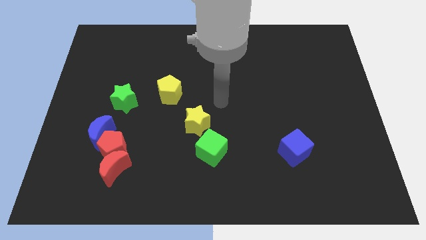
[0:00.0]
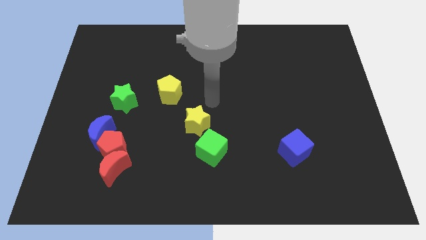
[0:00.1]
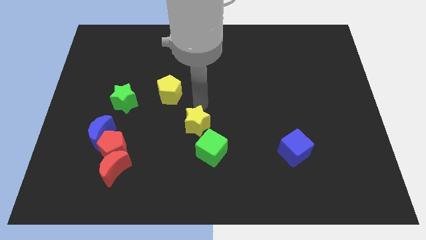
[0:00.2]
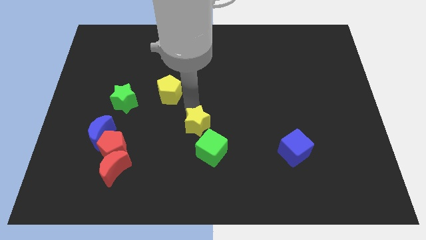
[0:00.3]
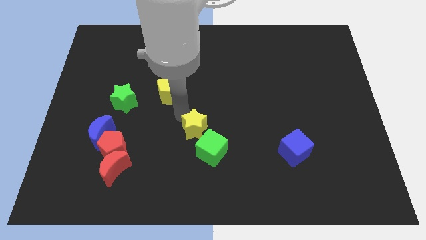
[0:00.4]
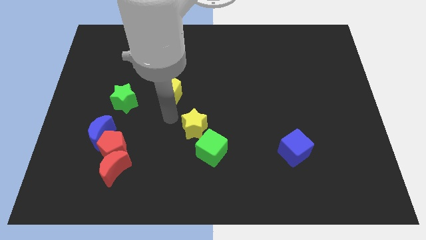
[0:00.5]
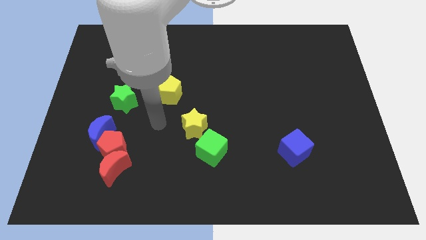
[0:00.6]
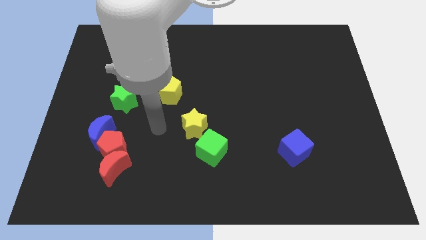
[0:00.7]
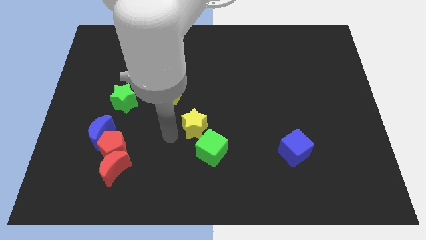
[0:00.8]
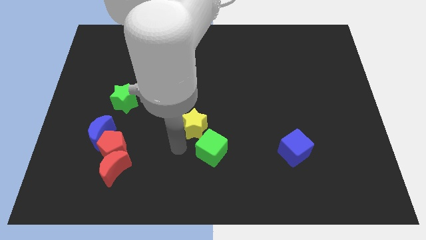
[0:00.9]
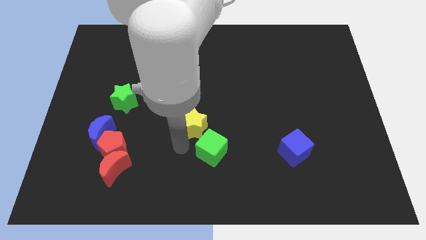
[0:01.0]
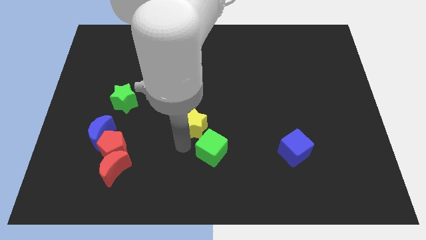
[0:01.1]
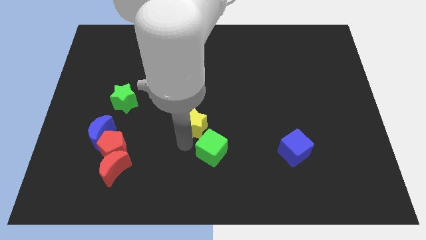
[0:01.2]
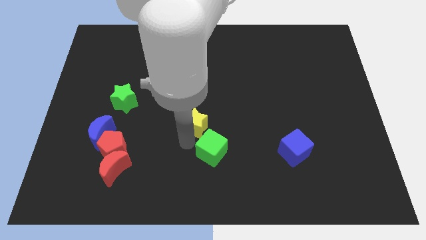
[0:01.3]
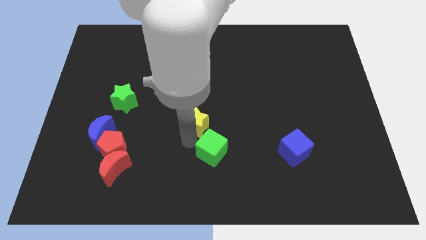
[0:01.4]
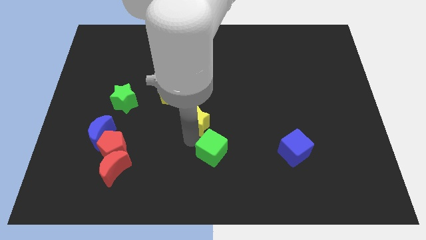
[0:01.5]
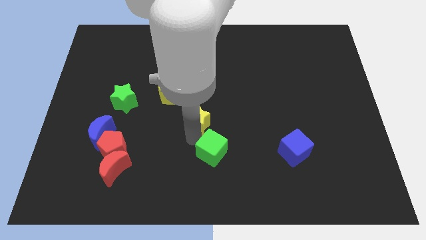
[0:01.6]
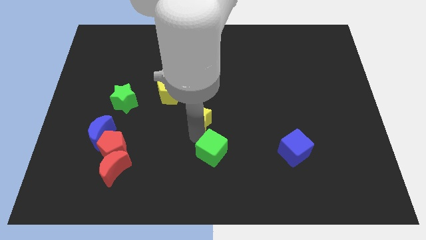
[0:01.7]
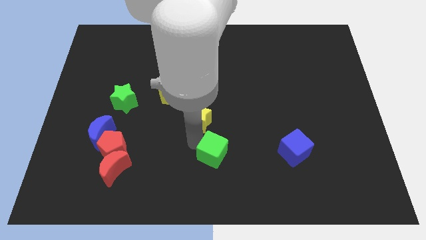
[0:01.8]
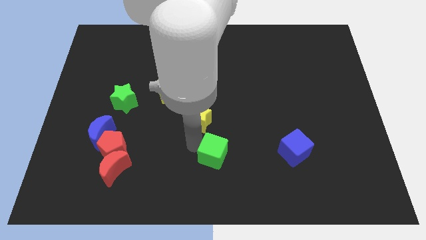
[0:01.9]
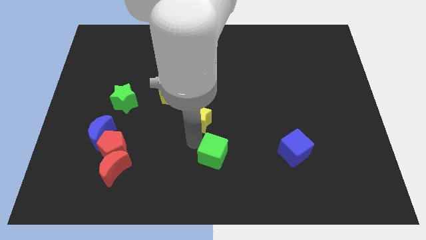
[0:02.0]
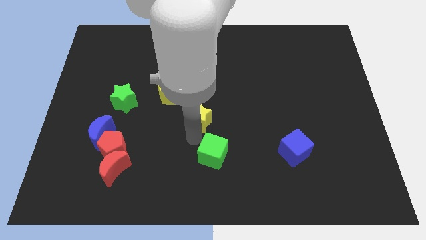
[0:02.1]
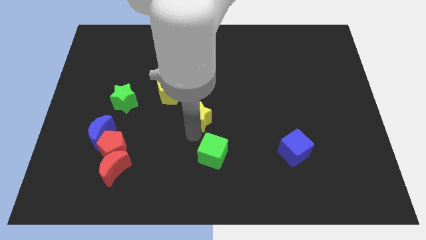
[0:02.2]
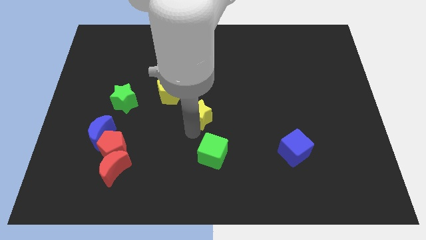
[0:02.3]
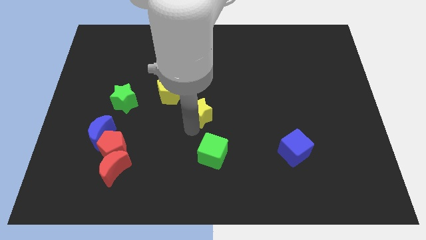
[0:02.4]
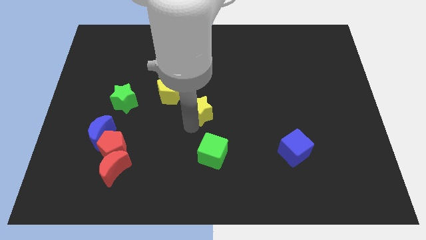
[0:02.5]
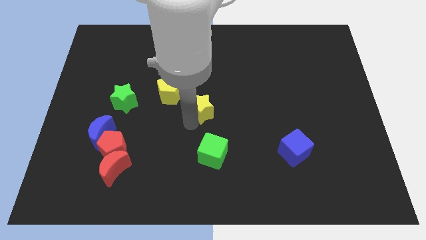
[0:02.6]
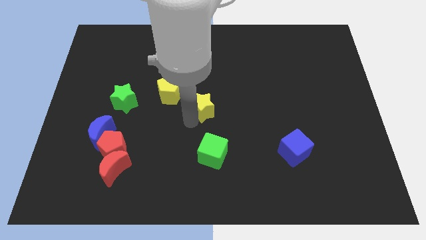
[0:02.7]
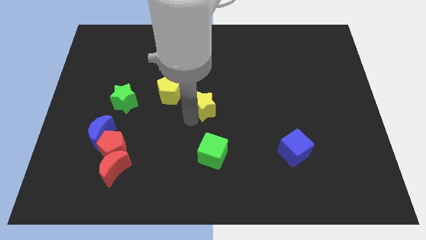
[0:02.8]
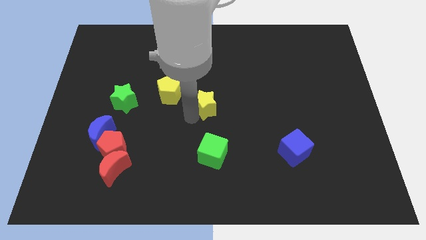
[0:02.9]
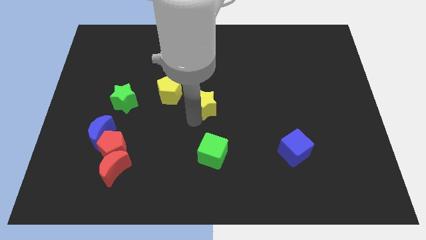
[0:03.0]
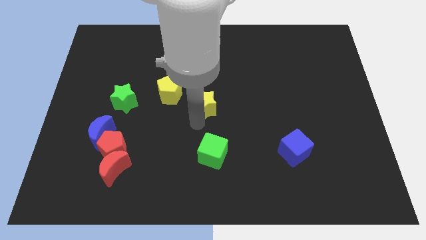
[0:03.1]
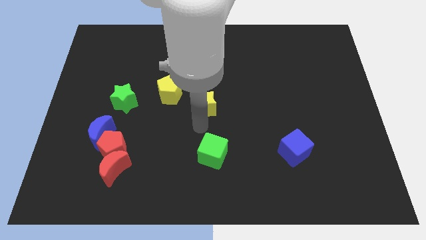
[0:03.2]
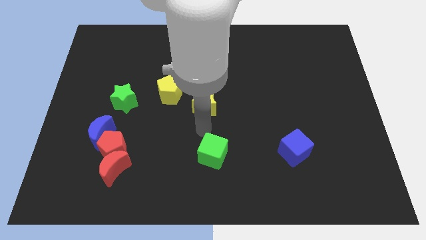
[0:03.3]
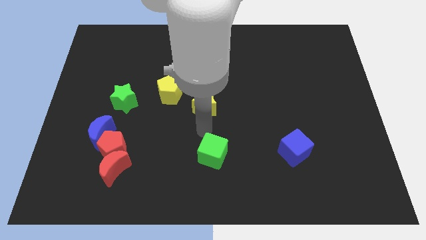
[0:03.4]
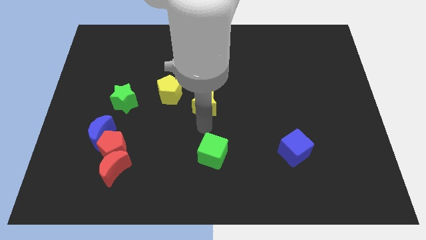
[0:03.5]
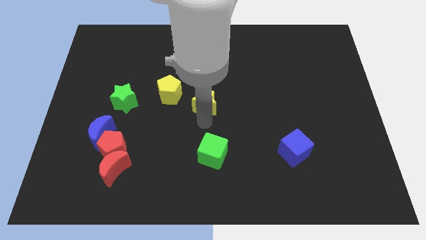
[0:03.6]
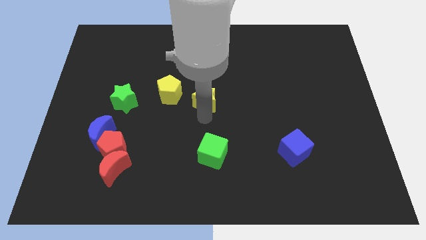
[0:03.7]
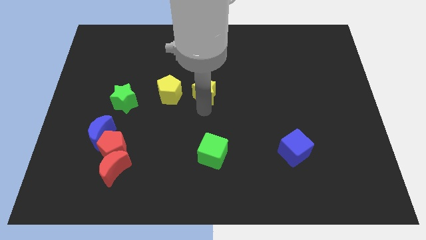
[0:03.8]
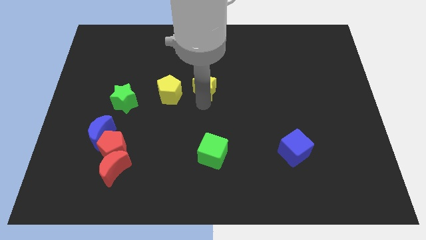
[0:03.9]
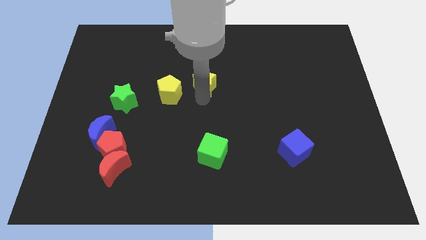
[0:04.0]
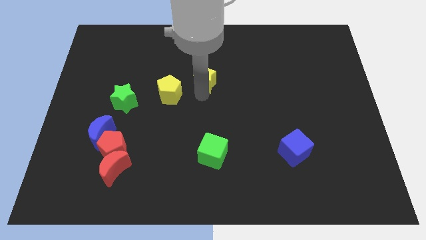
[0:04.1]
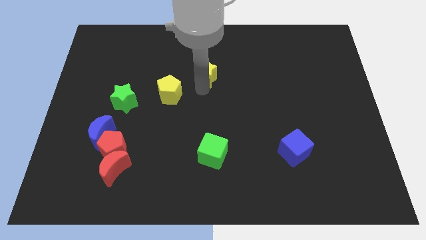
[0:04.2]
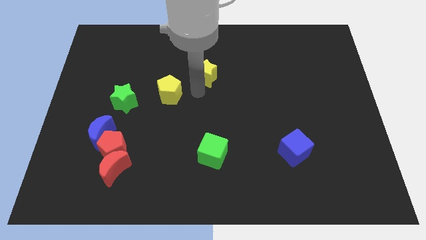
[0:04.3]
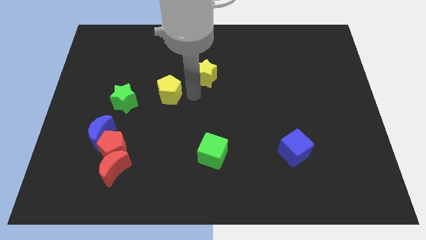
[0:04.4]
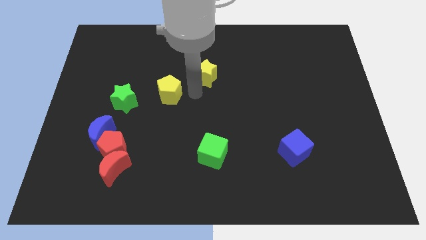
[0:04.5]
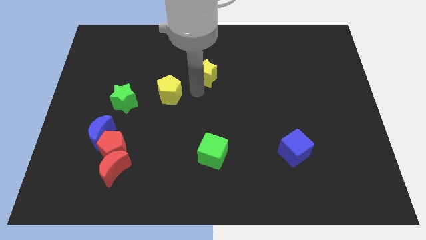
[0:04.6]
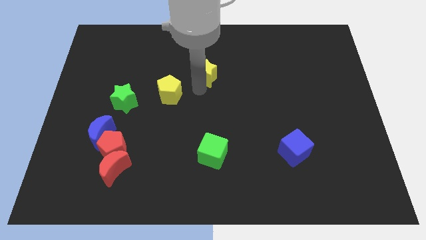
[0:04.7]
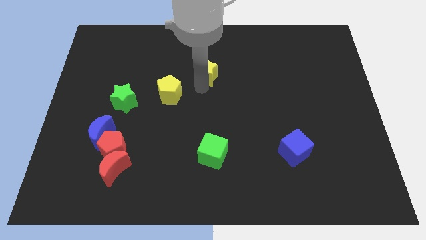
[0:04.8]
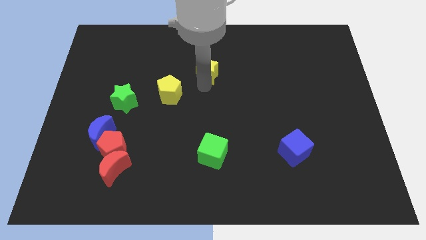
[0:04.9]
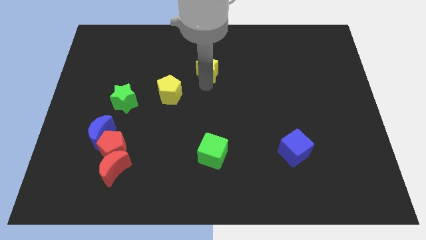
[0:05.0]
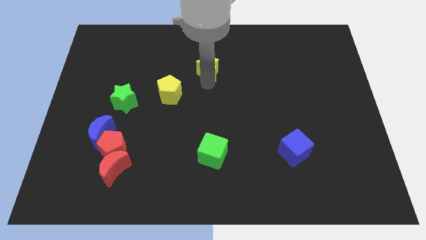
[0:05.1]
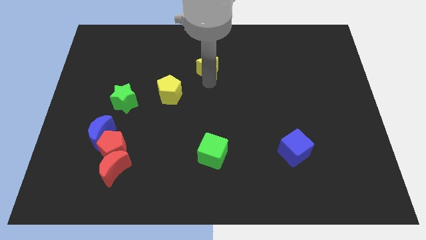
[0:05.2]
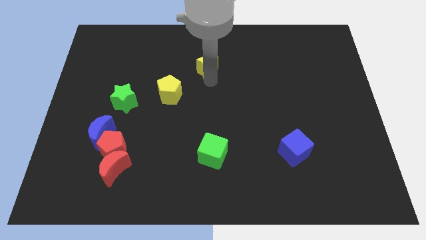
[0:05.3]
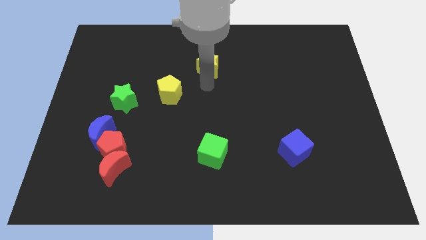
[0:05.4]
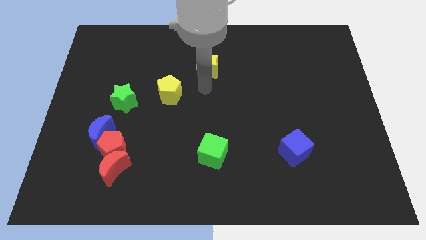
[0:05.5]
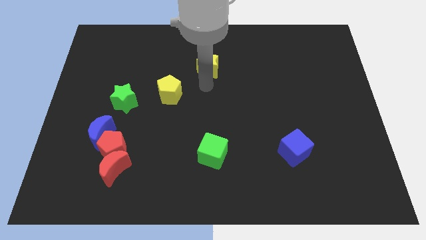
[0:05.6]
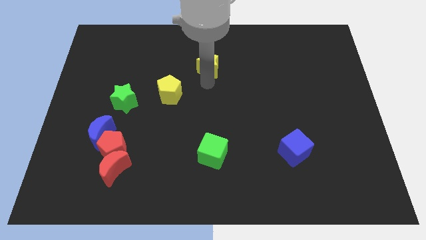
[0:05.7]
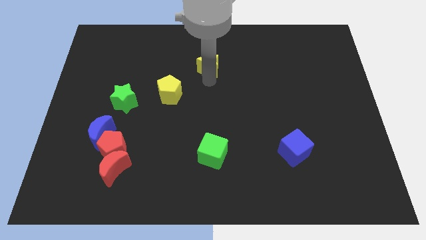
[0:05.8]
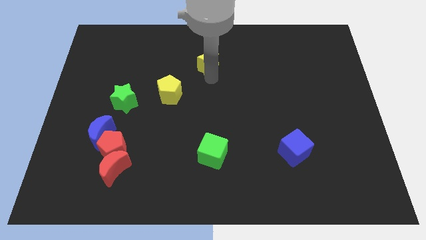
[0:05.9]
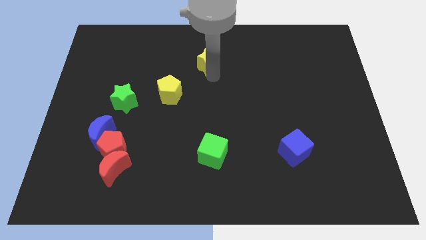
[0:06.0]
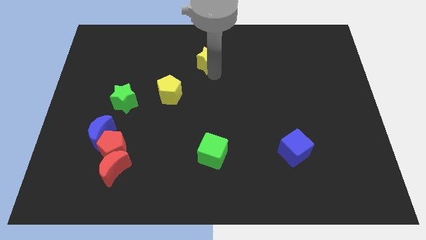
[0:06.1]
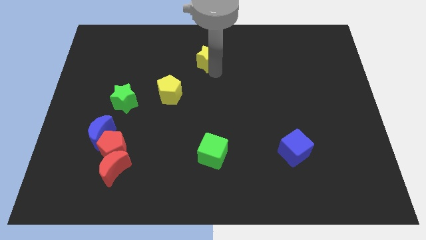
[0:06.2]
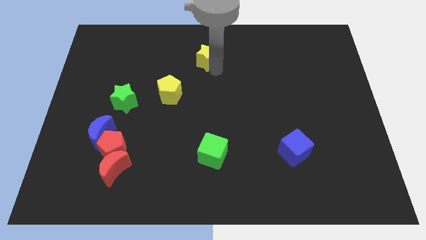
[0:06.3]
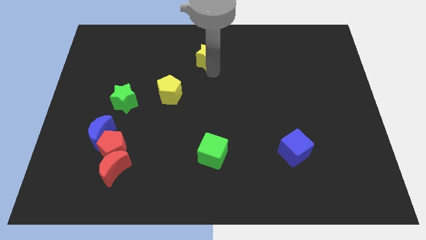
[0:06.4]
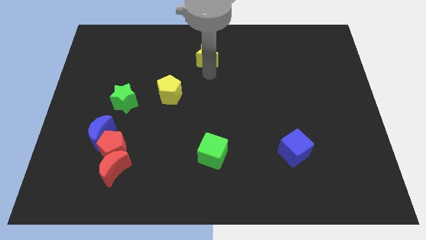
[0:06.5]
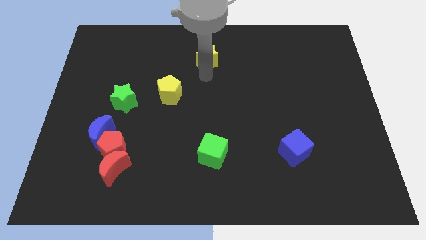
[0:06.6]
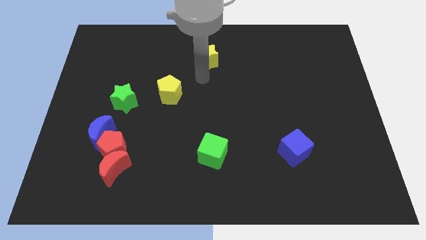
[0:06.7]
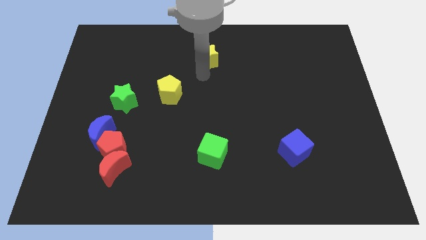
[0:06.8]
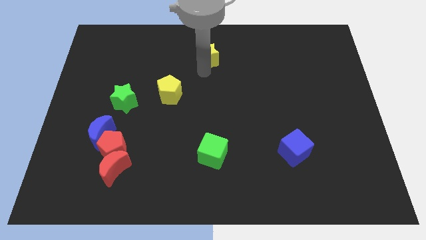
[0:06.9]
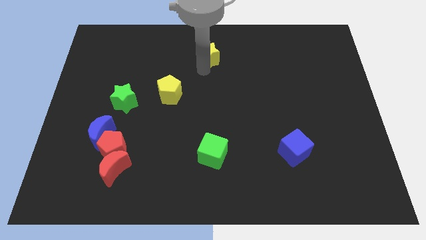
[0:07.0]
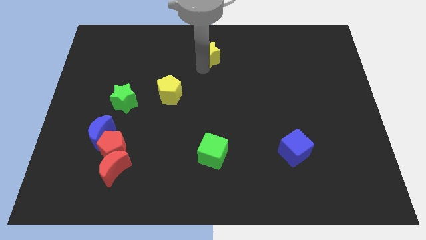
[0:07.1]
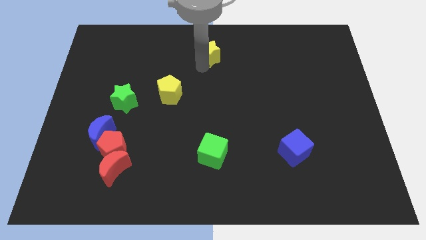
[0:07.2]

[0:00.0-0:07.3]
move the yellow star to the top
